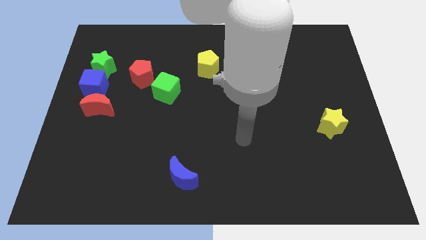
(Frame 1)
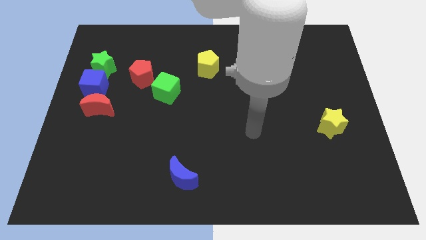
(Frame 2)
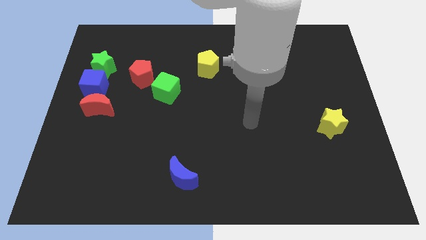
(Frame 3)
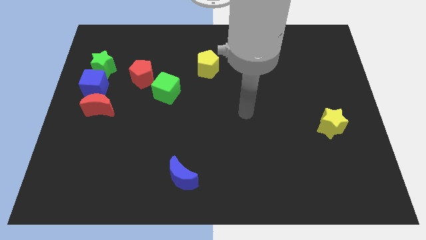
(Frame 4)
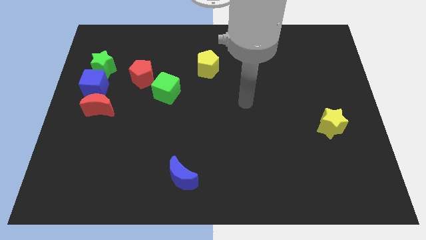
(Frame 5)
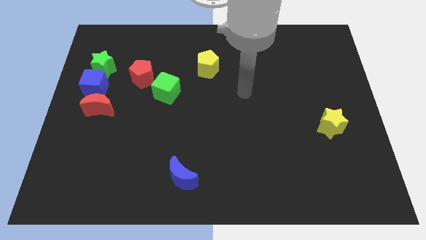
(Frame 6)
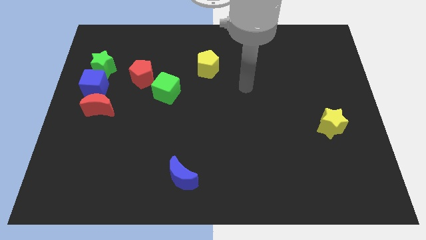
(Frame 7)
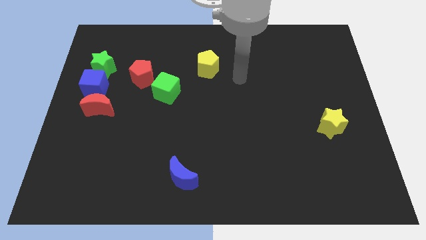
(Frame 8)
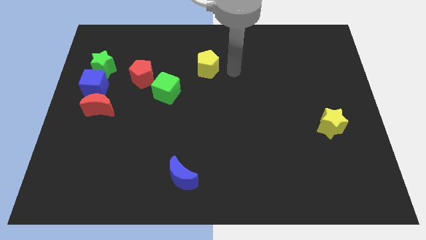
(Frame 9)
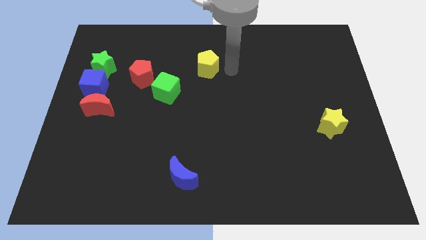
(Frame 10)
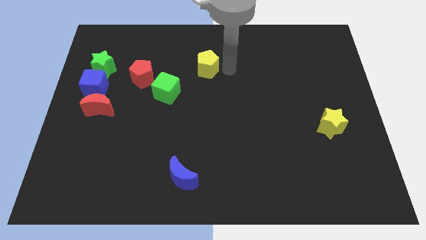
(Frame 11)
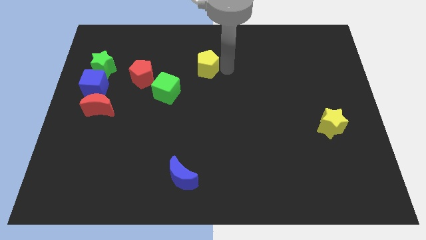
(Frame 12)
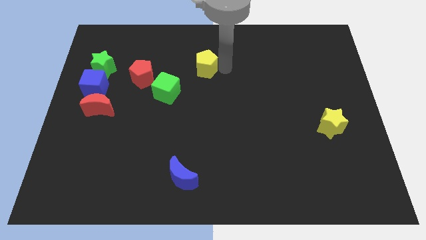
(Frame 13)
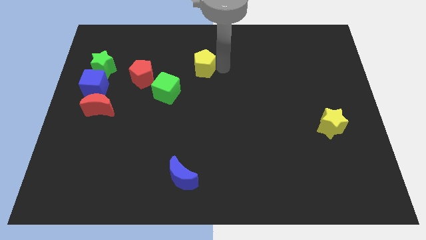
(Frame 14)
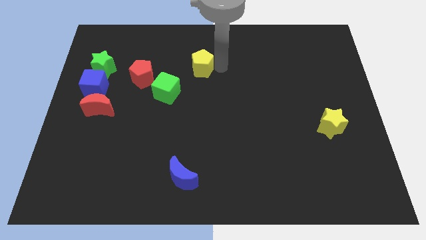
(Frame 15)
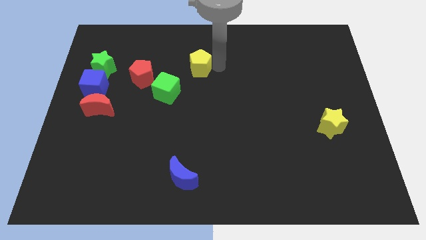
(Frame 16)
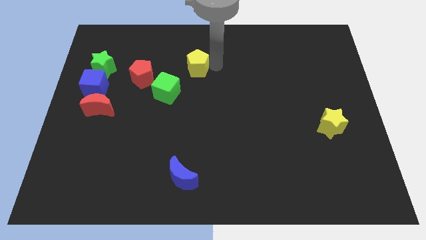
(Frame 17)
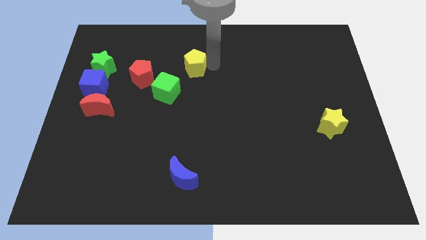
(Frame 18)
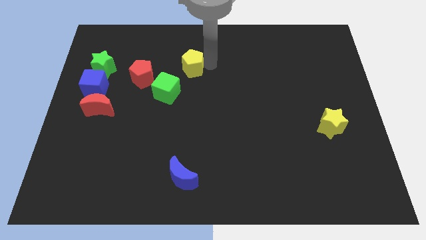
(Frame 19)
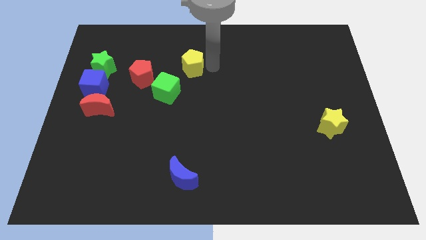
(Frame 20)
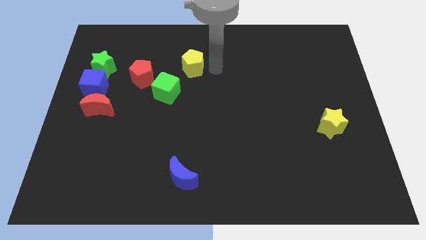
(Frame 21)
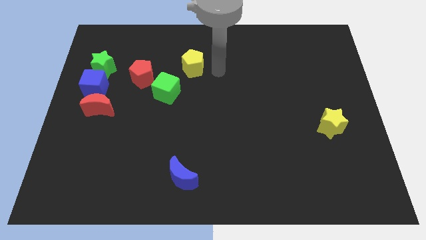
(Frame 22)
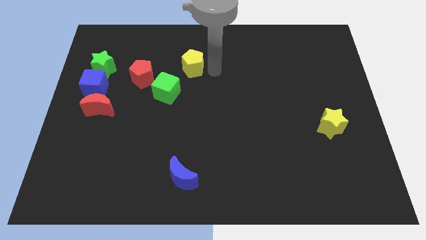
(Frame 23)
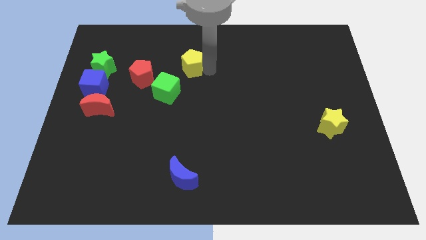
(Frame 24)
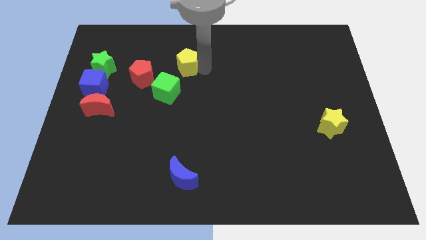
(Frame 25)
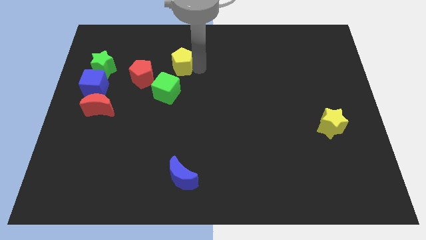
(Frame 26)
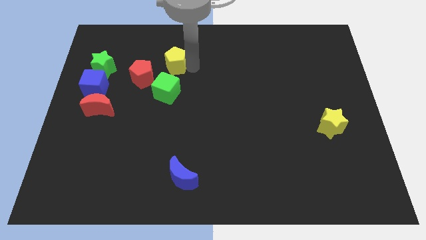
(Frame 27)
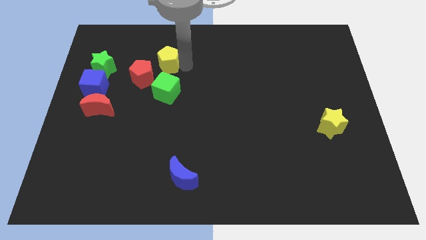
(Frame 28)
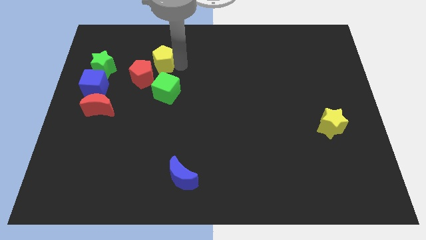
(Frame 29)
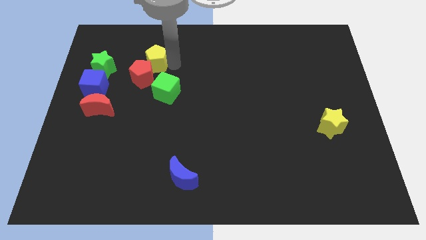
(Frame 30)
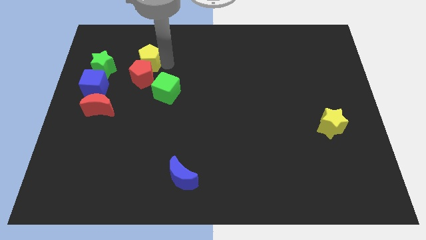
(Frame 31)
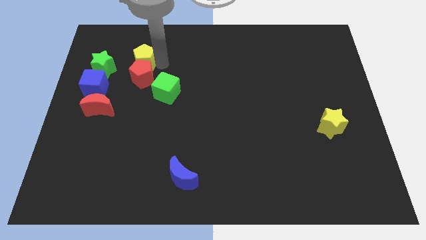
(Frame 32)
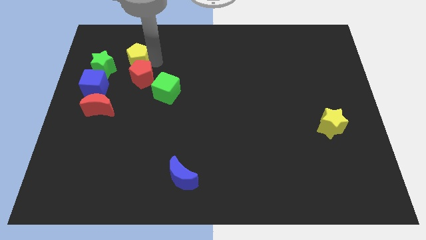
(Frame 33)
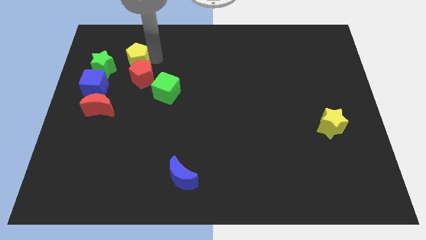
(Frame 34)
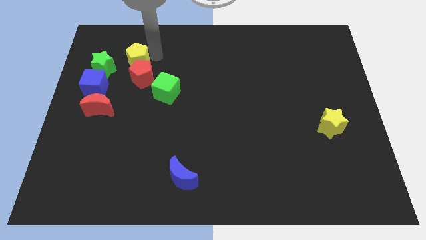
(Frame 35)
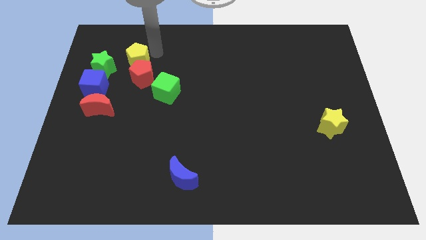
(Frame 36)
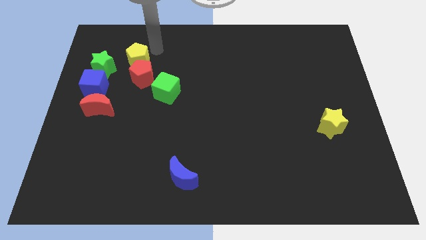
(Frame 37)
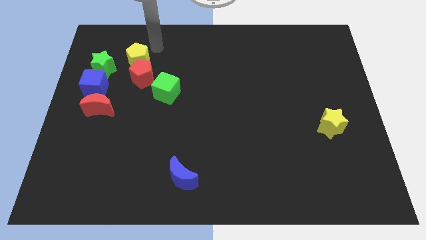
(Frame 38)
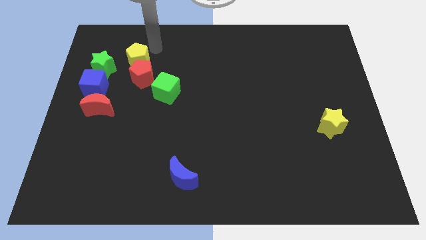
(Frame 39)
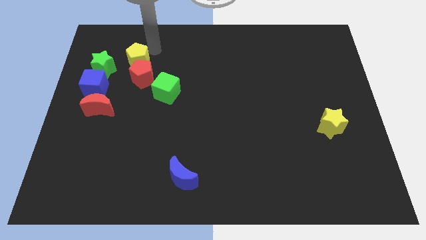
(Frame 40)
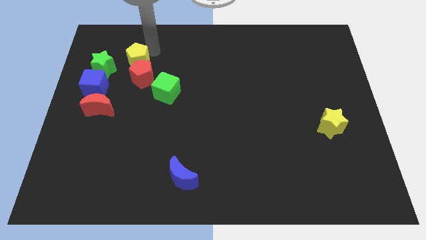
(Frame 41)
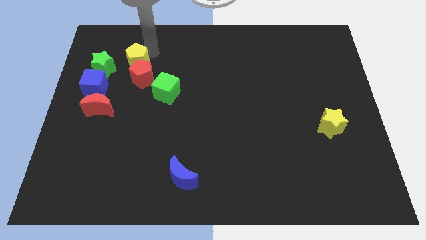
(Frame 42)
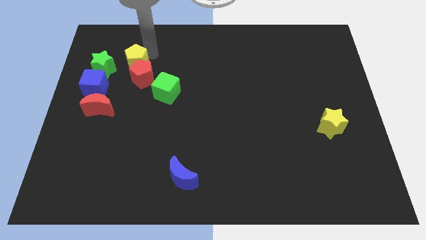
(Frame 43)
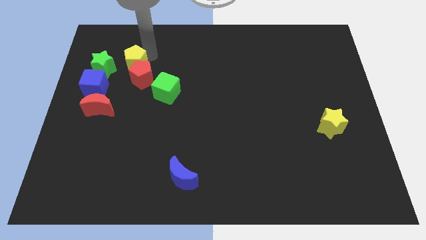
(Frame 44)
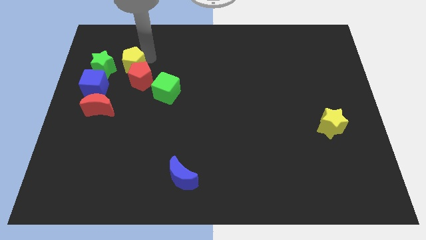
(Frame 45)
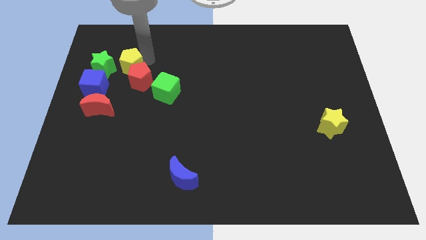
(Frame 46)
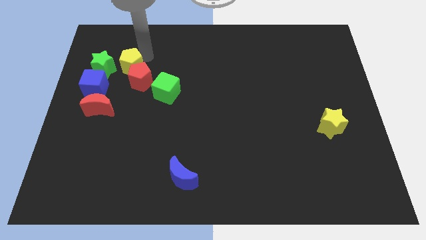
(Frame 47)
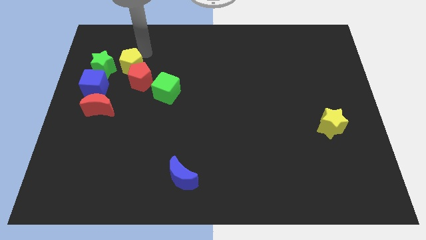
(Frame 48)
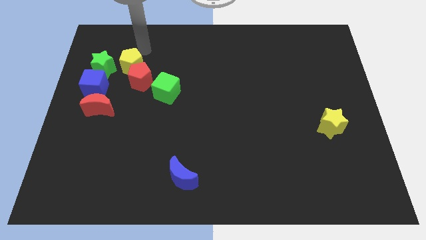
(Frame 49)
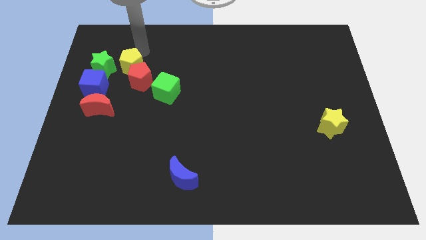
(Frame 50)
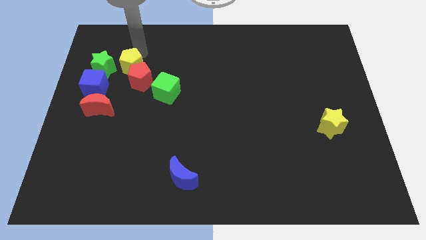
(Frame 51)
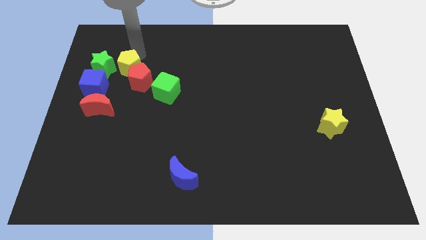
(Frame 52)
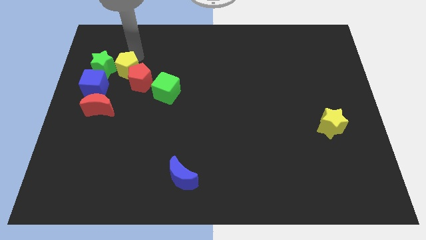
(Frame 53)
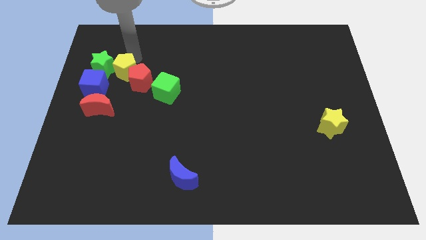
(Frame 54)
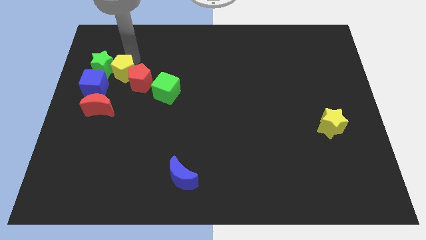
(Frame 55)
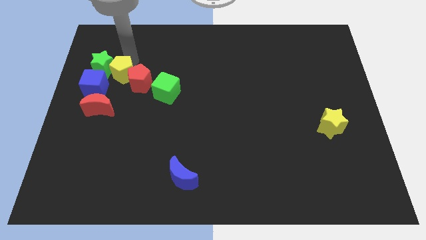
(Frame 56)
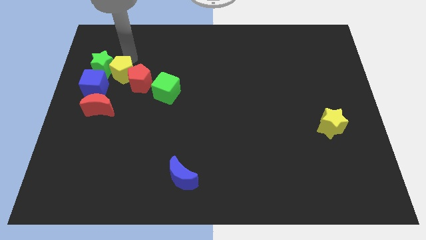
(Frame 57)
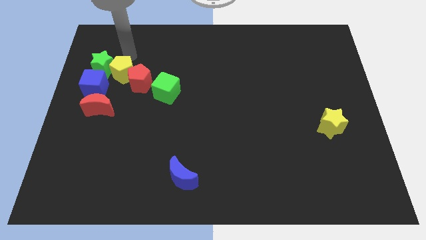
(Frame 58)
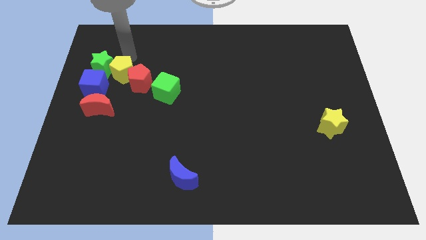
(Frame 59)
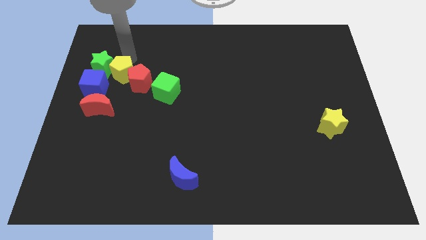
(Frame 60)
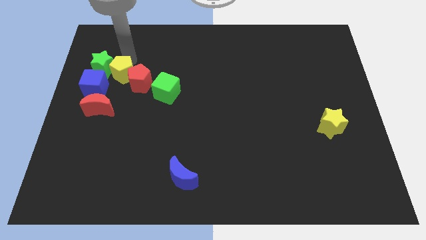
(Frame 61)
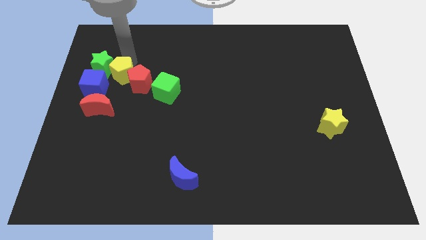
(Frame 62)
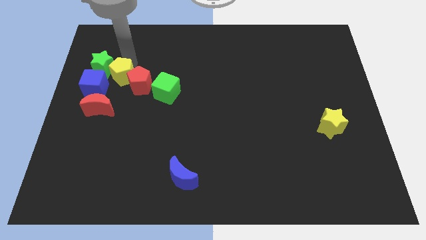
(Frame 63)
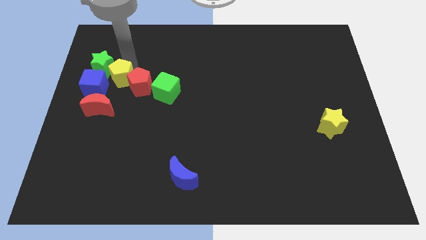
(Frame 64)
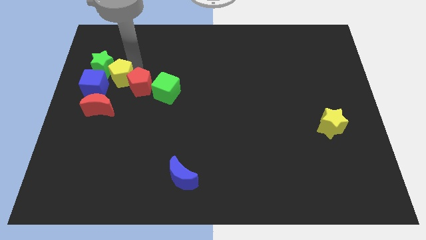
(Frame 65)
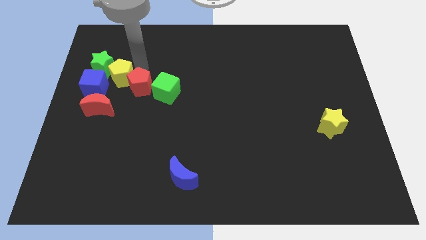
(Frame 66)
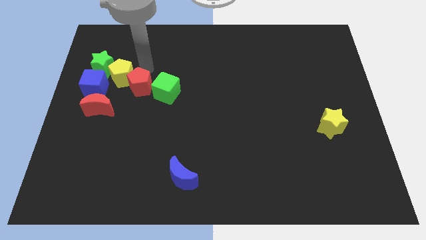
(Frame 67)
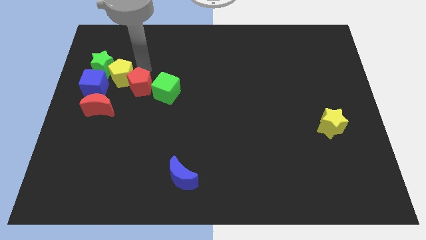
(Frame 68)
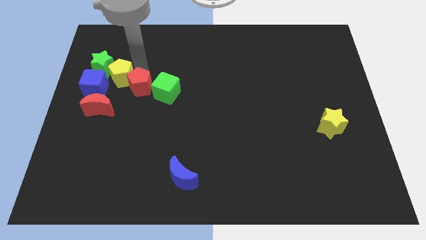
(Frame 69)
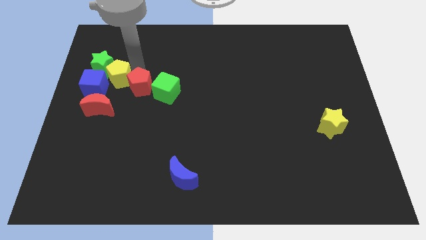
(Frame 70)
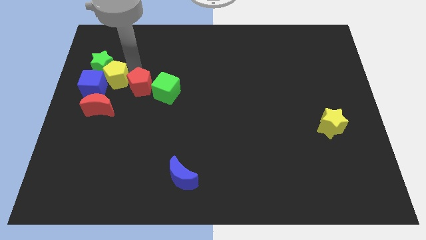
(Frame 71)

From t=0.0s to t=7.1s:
put the yellow pentagon close to the blue cube
